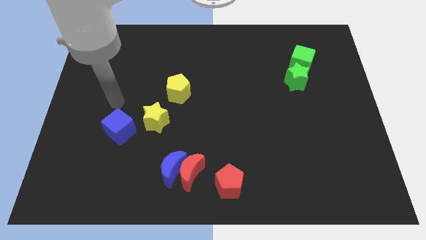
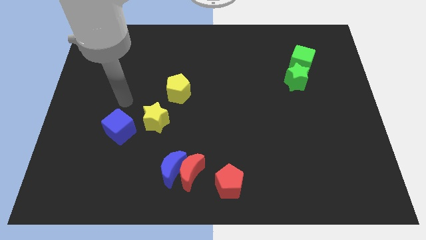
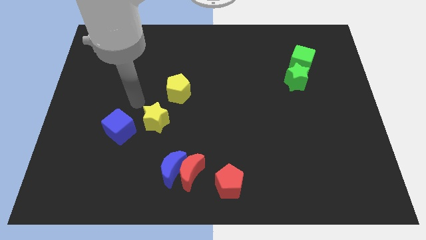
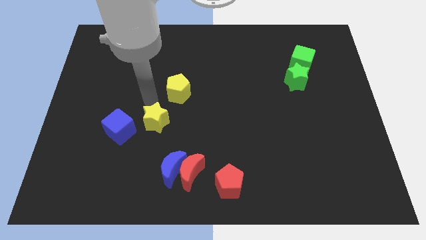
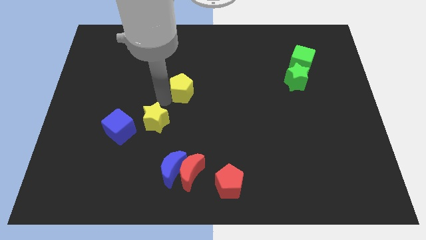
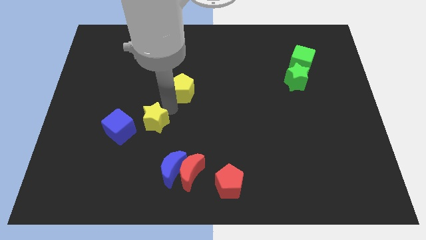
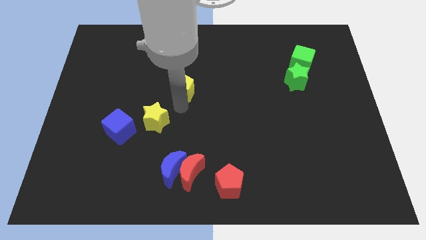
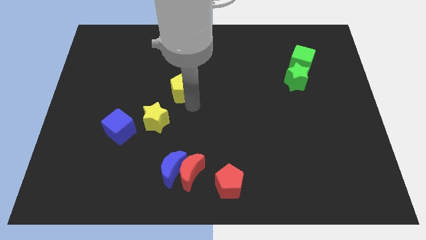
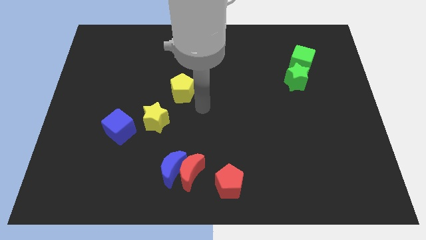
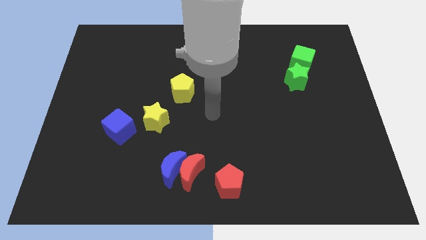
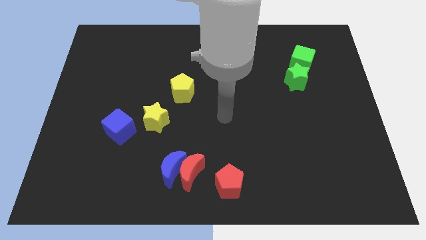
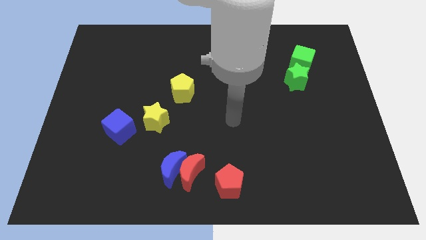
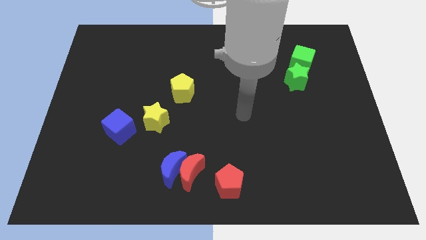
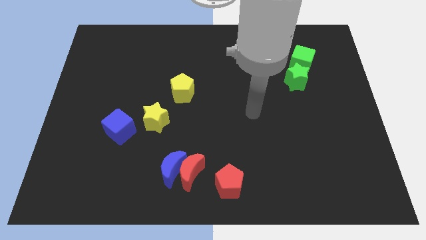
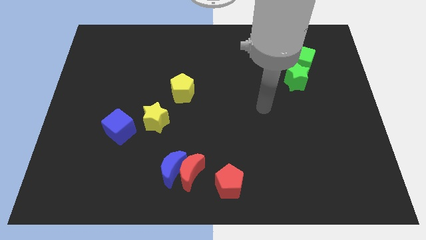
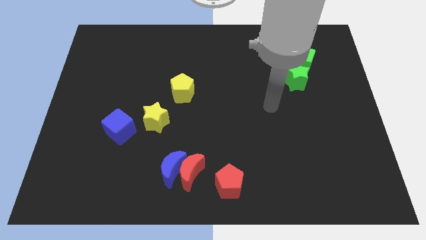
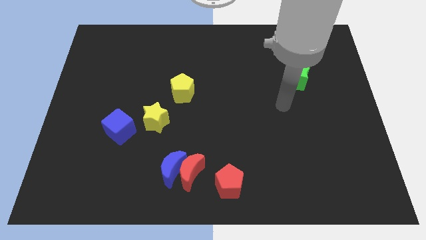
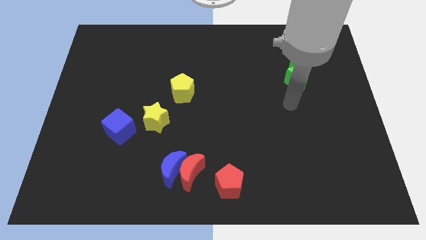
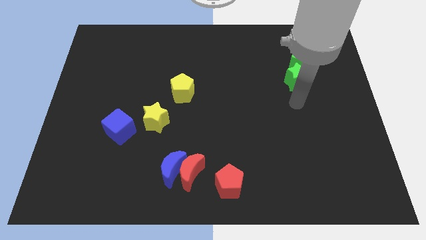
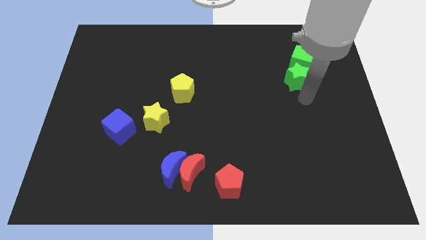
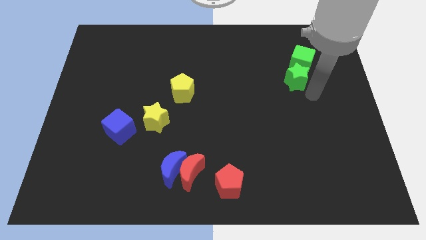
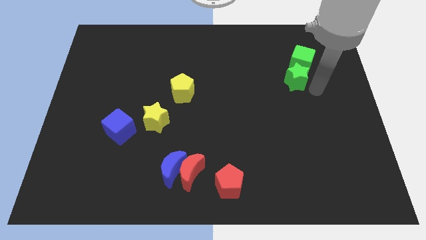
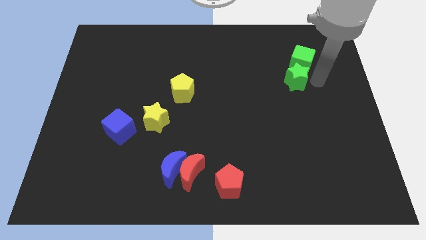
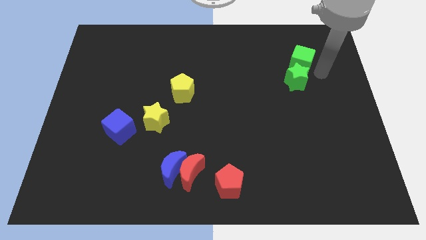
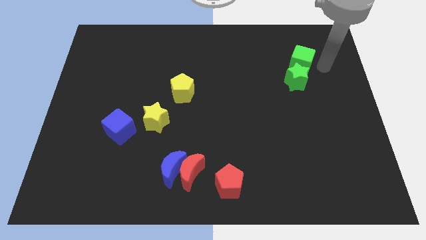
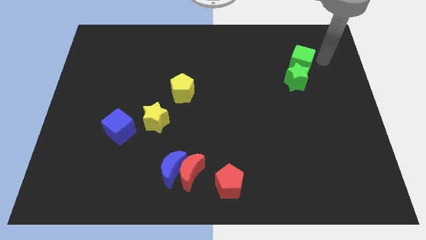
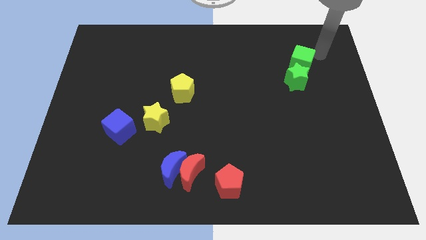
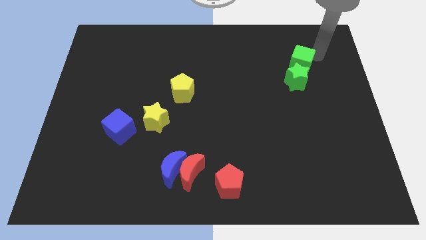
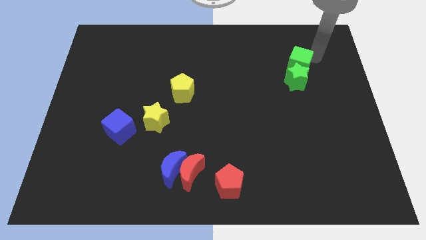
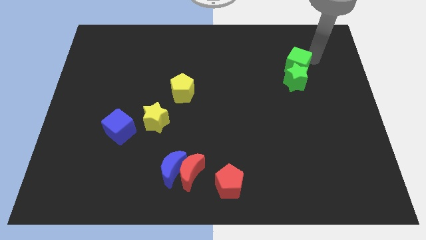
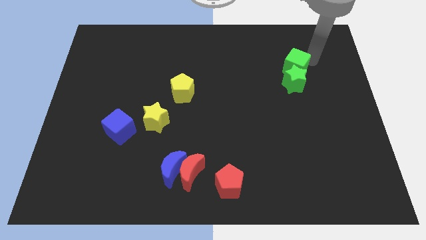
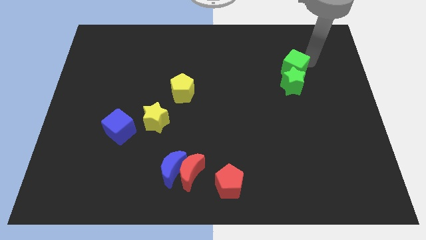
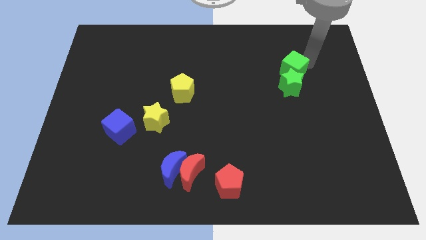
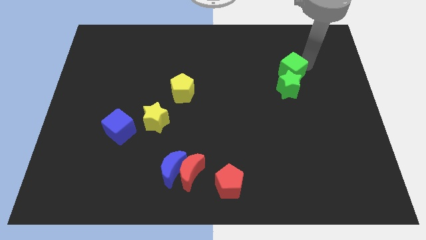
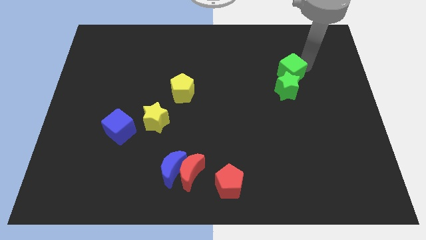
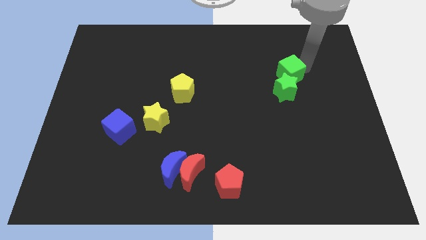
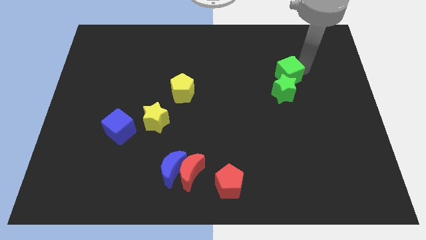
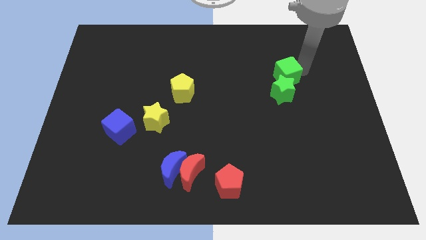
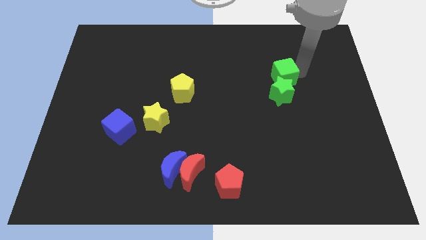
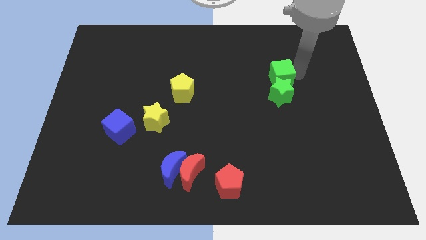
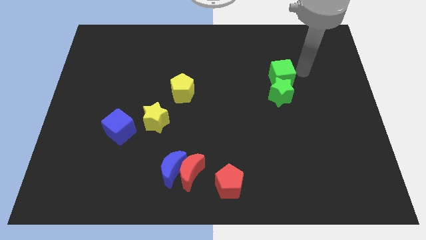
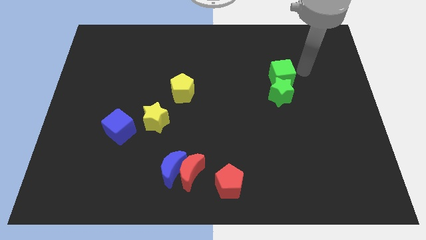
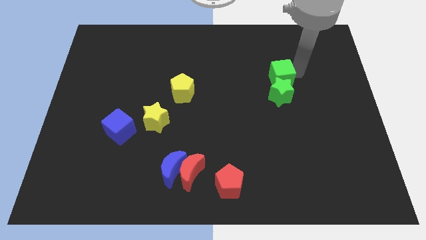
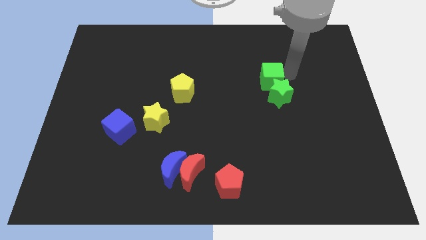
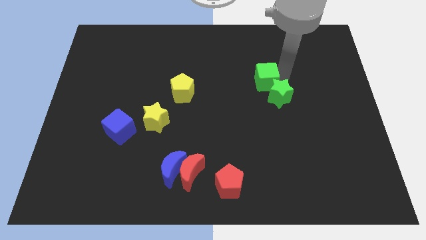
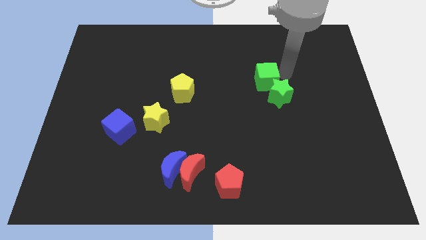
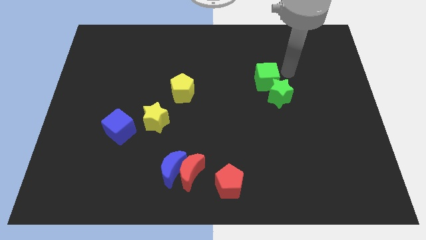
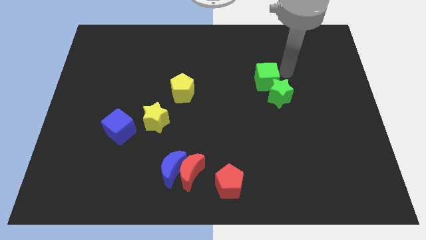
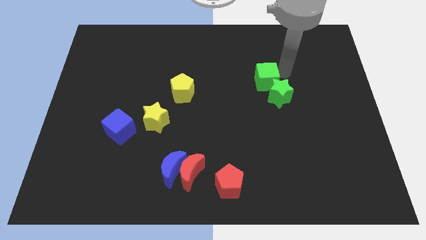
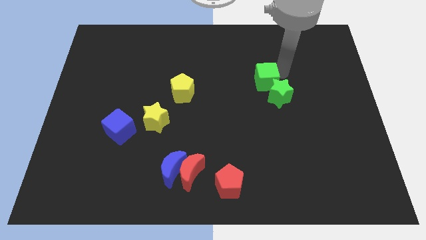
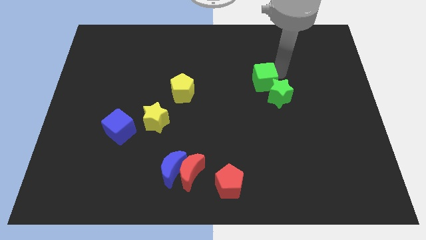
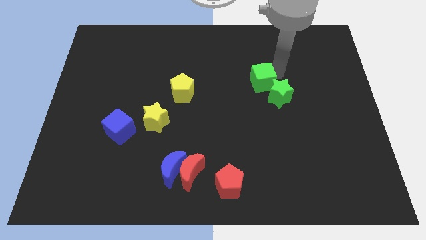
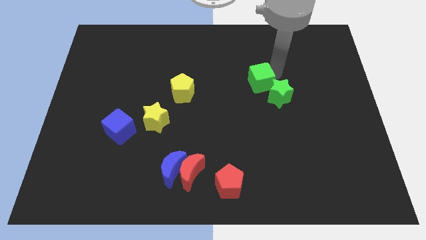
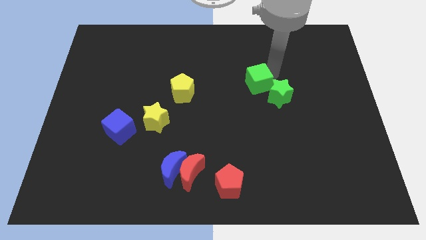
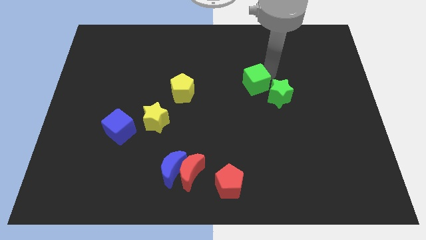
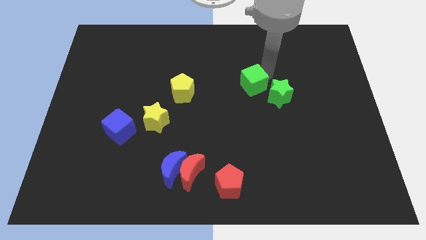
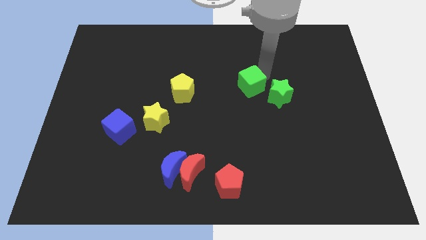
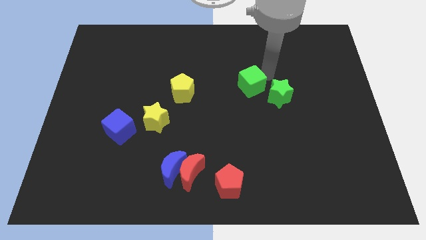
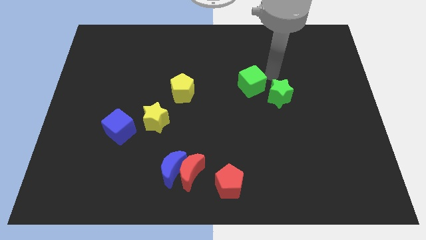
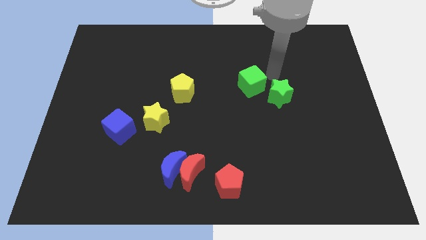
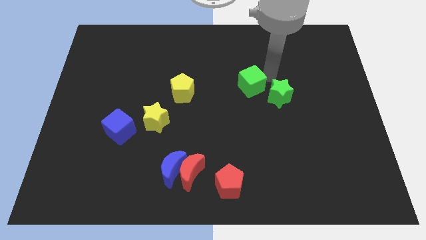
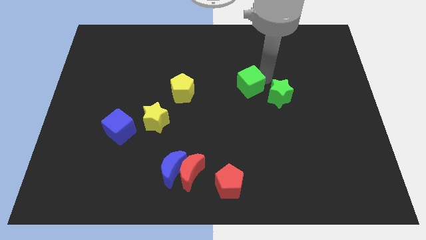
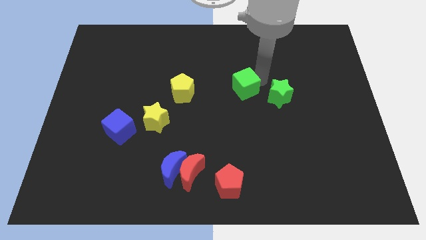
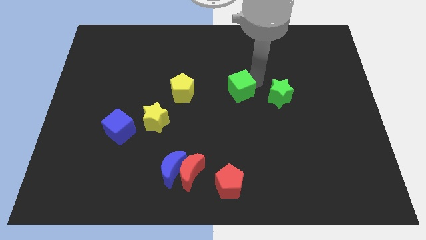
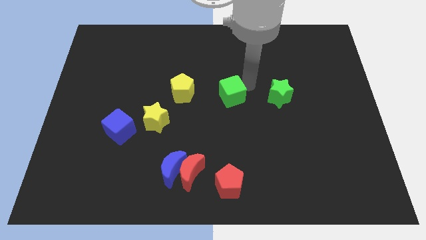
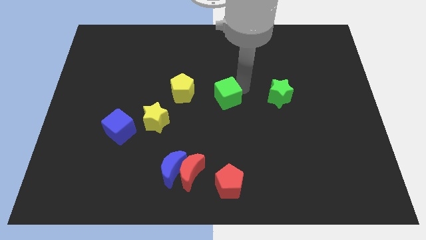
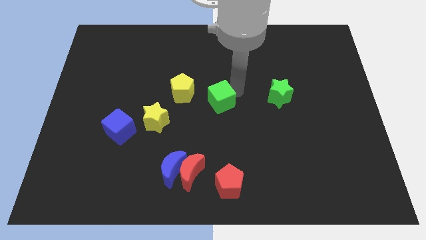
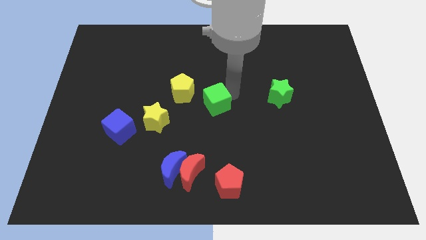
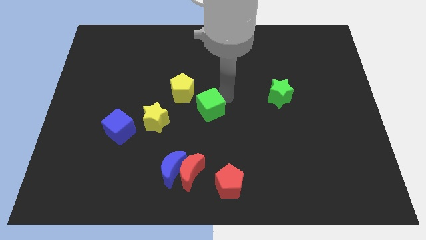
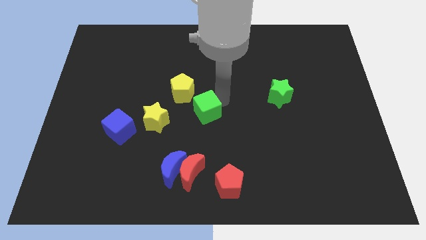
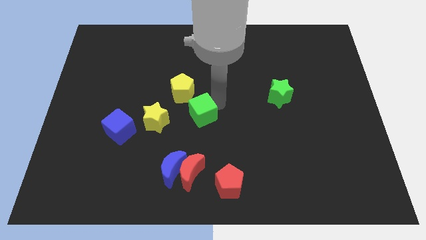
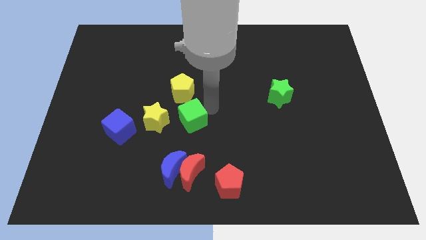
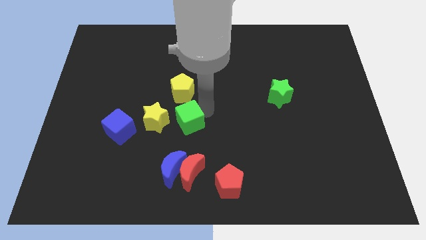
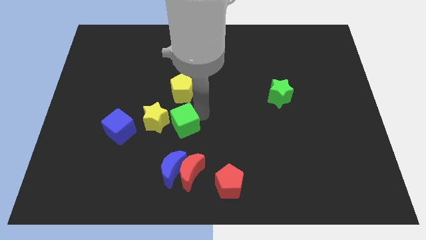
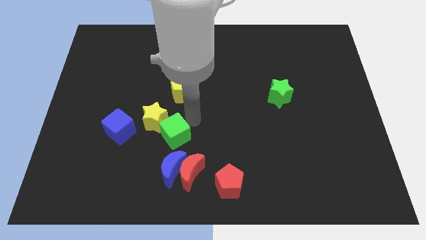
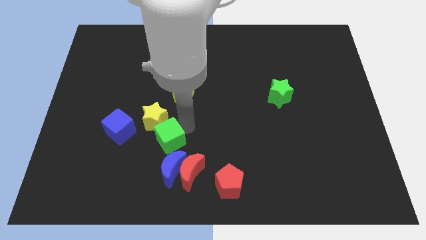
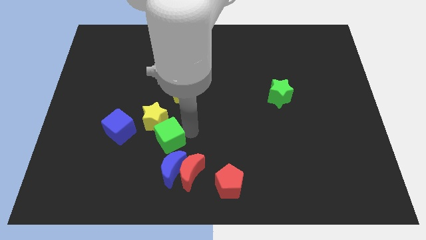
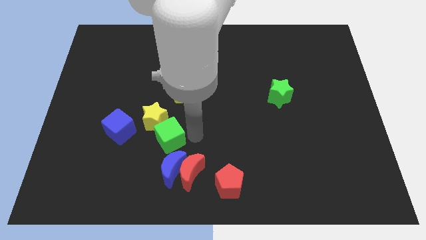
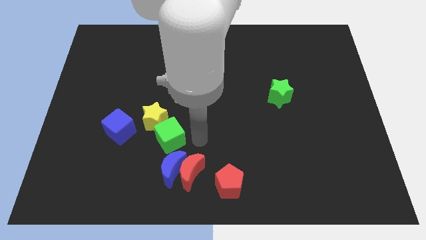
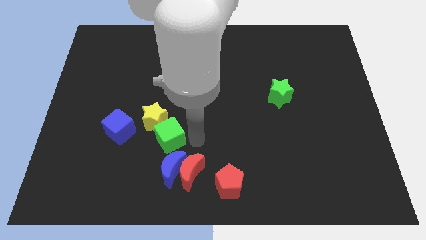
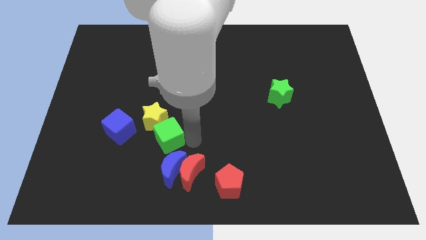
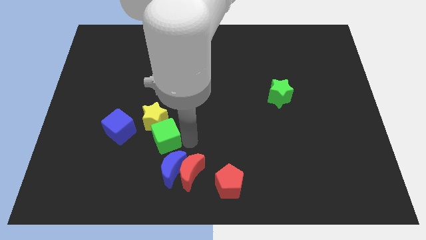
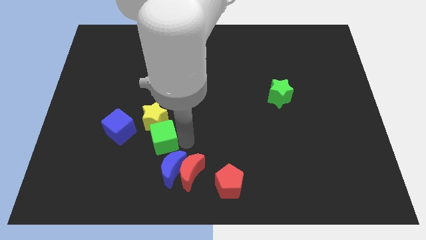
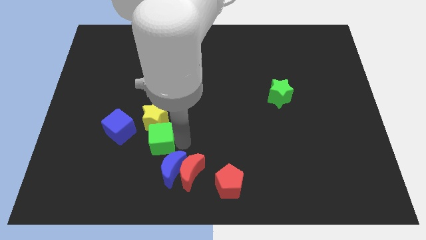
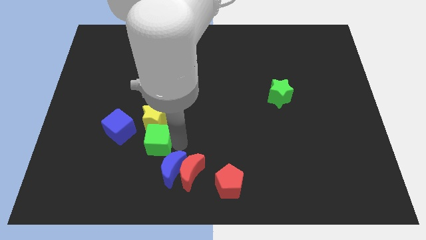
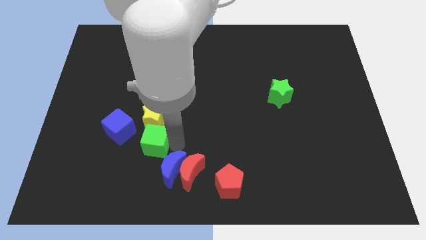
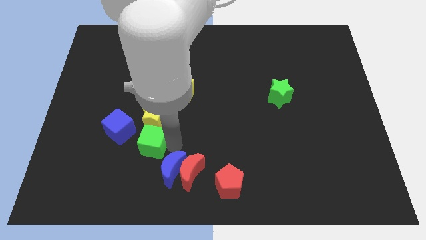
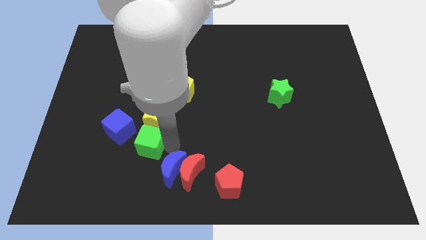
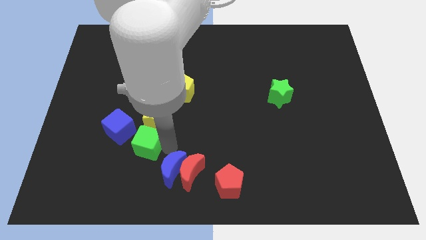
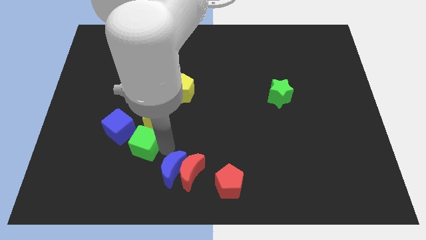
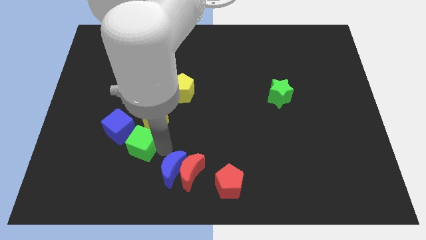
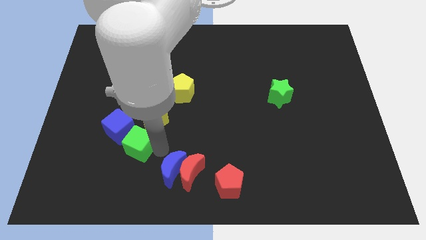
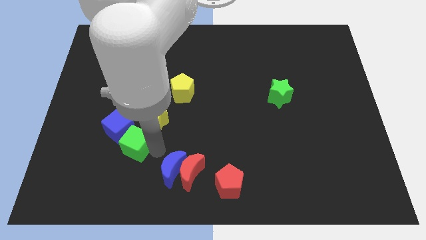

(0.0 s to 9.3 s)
push the green cube next to the blue cube
